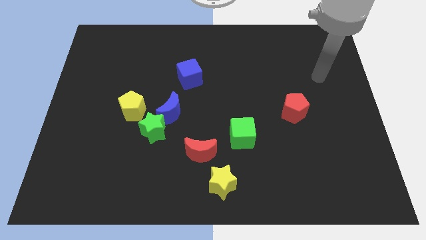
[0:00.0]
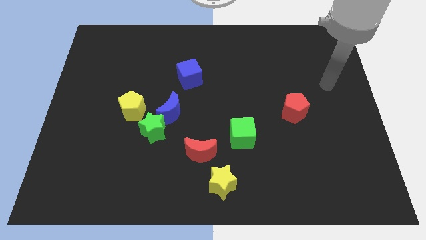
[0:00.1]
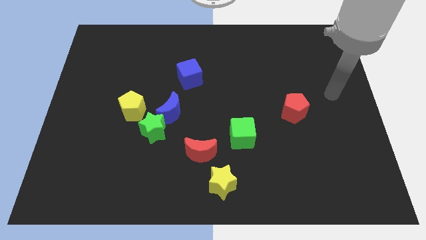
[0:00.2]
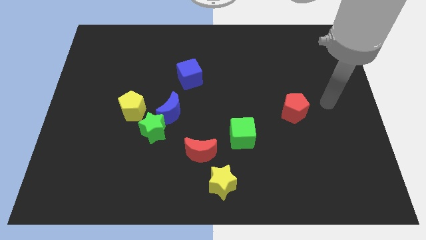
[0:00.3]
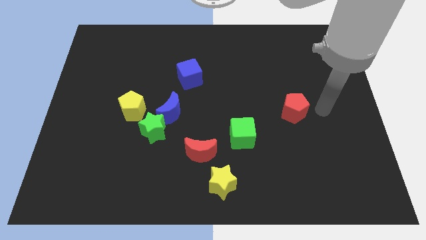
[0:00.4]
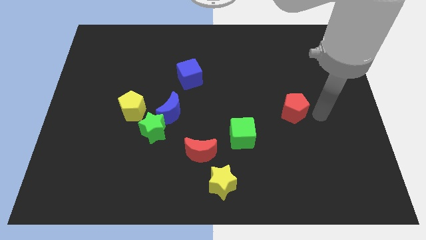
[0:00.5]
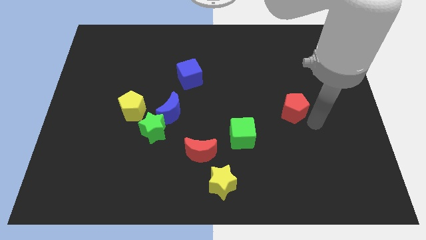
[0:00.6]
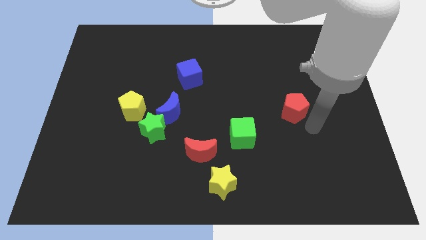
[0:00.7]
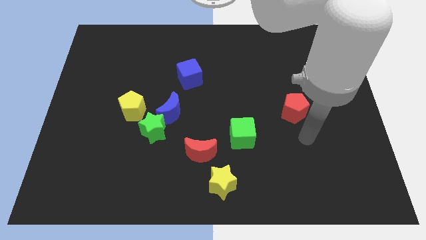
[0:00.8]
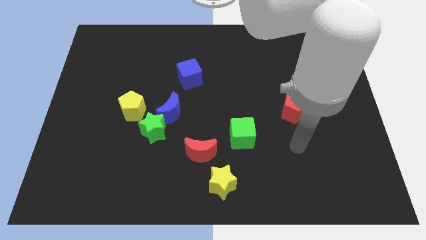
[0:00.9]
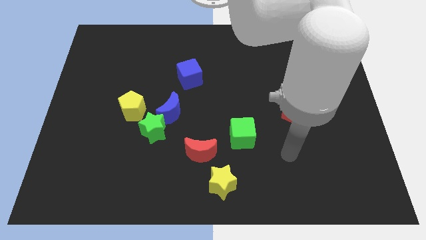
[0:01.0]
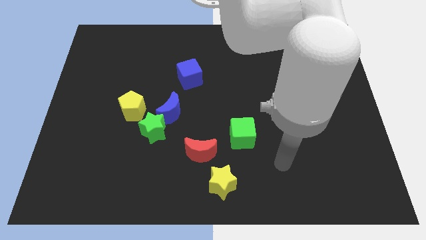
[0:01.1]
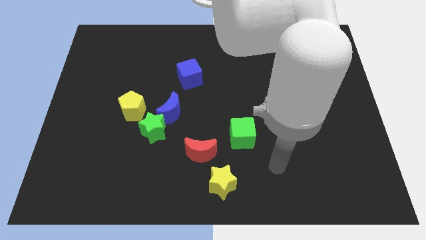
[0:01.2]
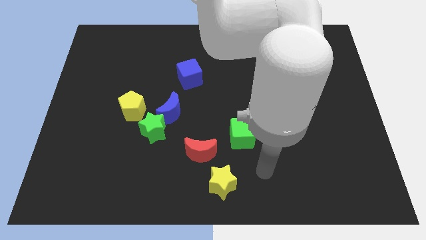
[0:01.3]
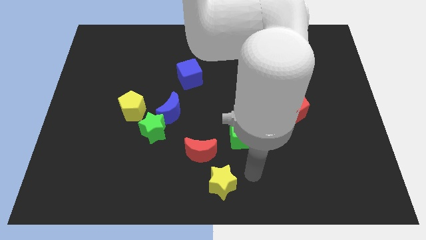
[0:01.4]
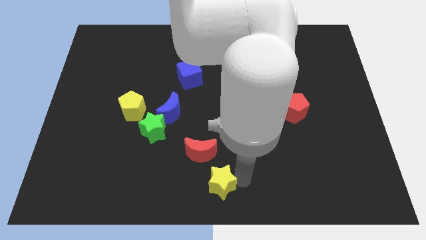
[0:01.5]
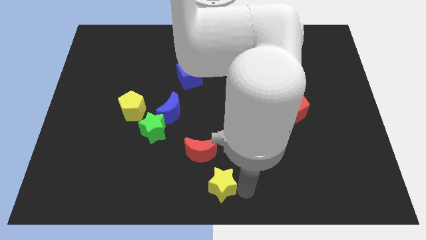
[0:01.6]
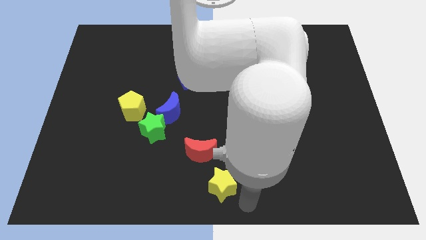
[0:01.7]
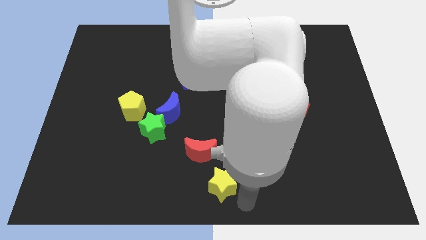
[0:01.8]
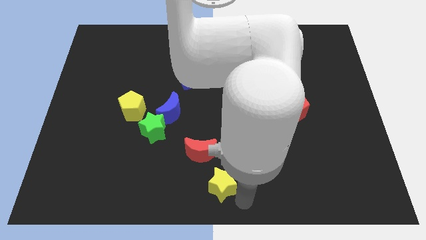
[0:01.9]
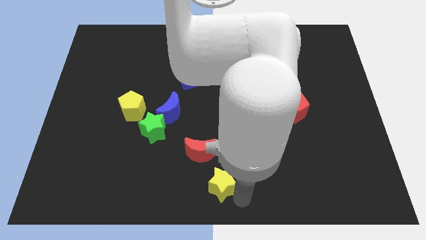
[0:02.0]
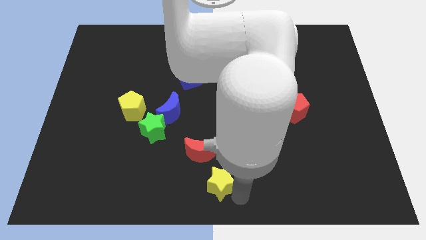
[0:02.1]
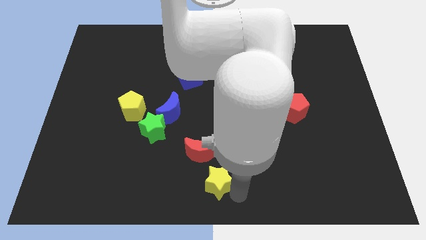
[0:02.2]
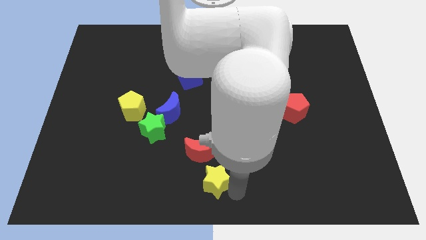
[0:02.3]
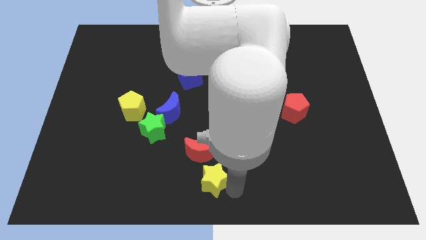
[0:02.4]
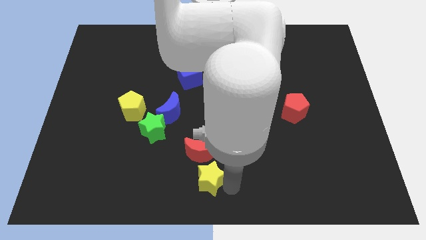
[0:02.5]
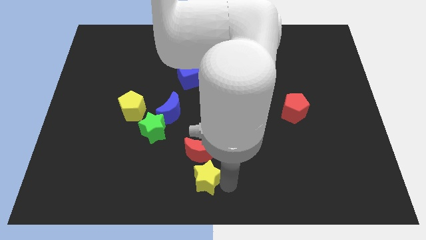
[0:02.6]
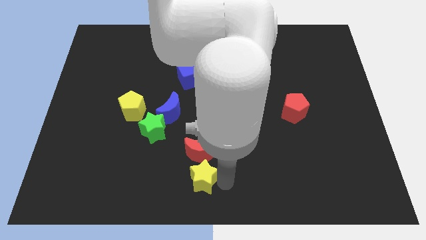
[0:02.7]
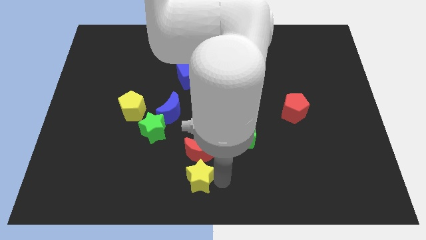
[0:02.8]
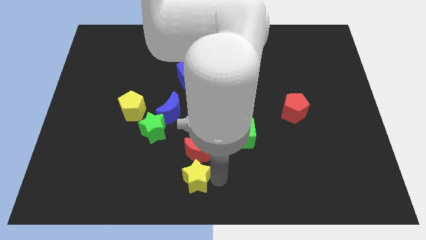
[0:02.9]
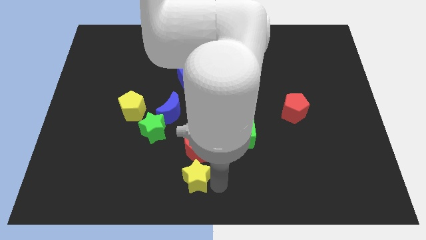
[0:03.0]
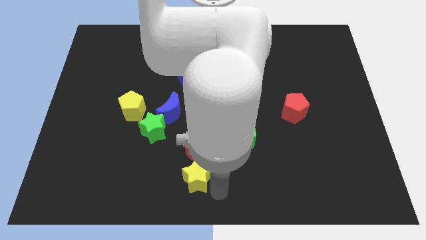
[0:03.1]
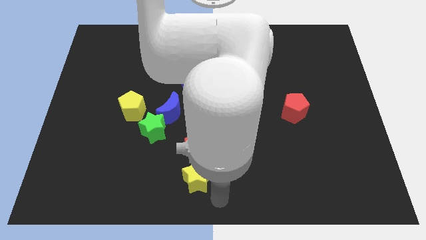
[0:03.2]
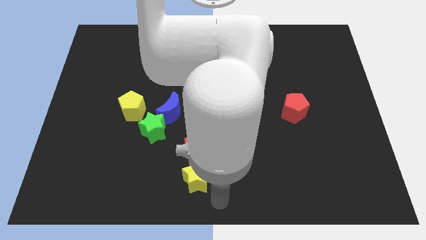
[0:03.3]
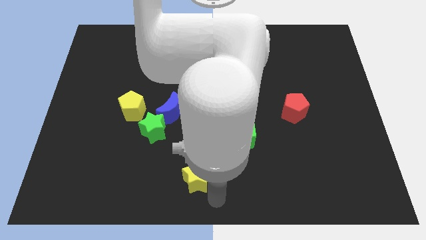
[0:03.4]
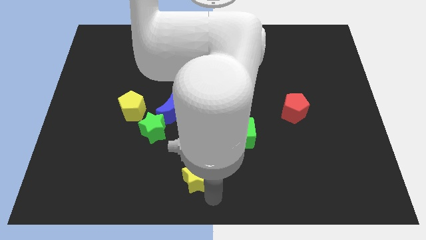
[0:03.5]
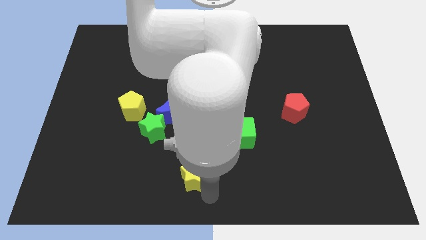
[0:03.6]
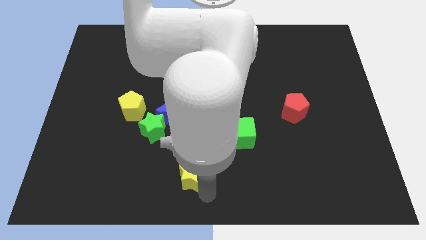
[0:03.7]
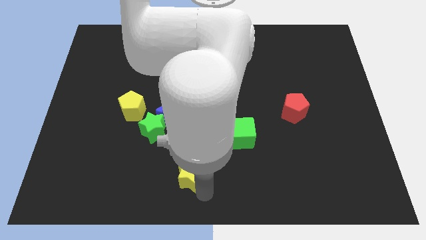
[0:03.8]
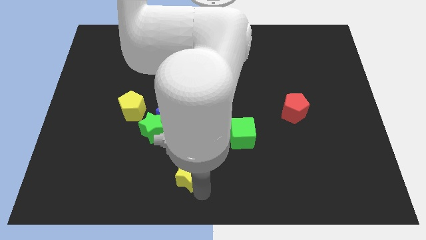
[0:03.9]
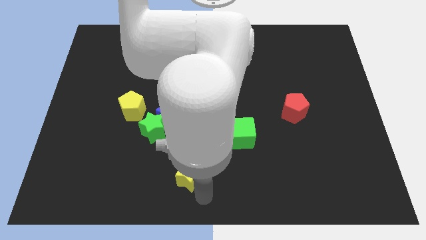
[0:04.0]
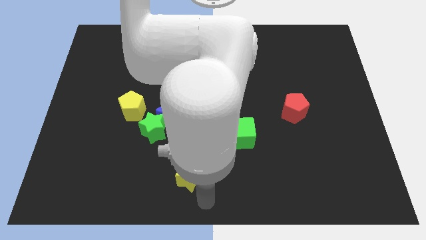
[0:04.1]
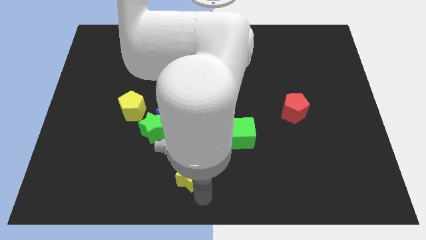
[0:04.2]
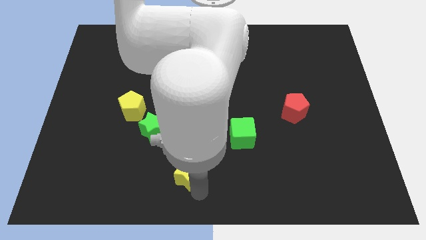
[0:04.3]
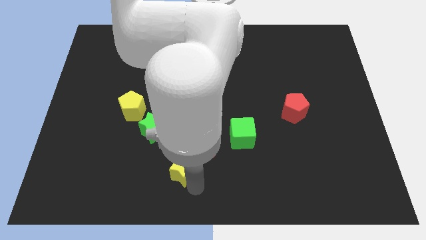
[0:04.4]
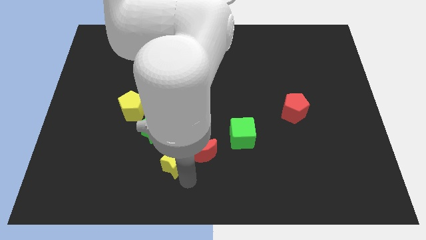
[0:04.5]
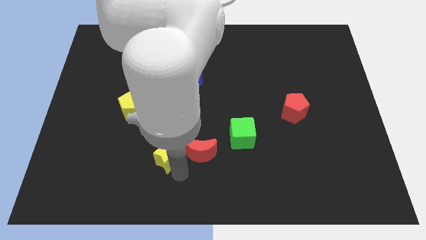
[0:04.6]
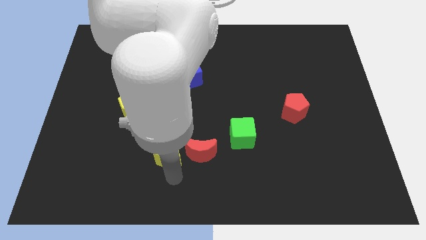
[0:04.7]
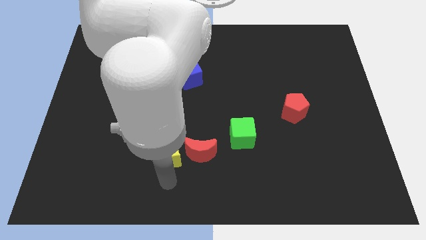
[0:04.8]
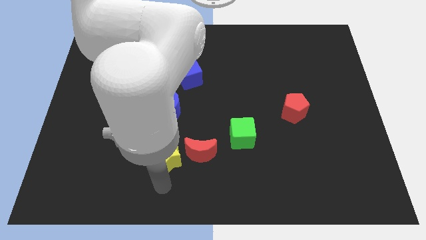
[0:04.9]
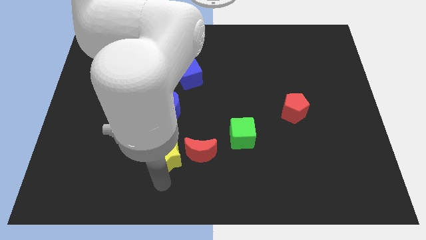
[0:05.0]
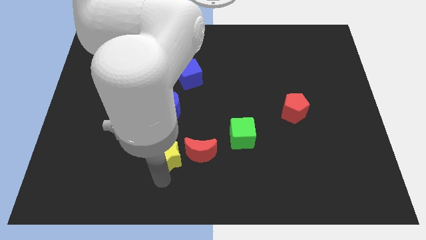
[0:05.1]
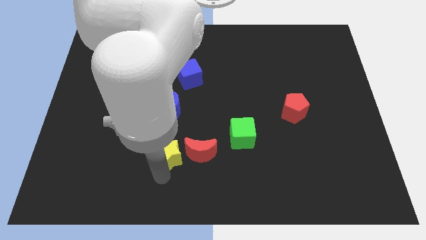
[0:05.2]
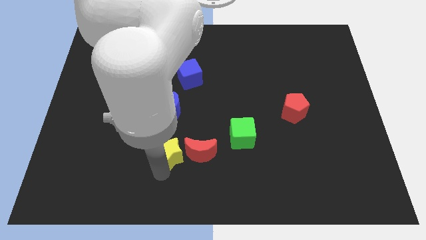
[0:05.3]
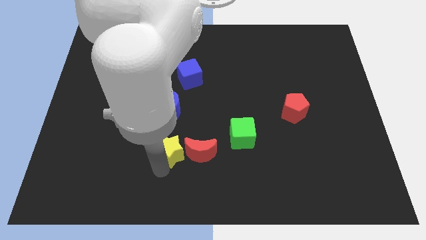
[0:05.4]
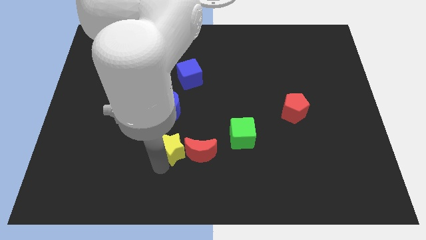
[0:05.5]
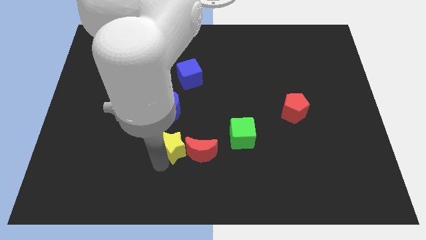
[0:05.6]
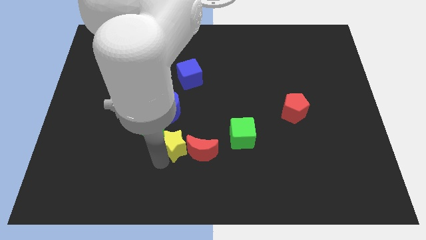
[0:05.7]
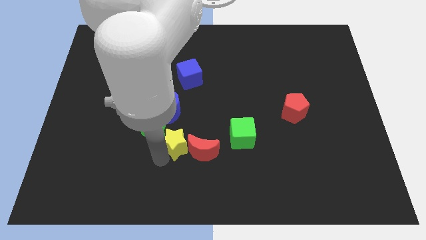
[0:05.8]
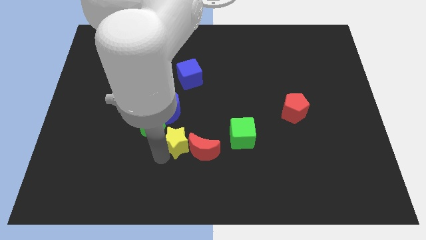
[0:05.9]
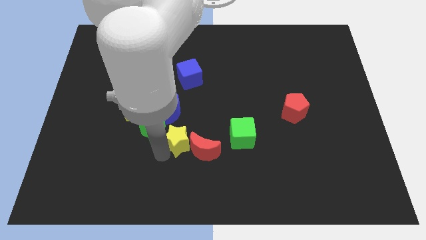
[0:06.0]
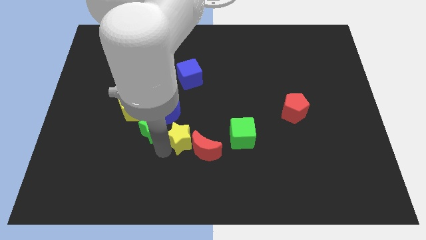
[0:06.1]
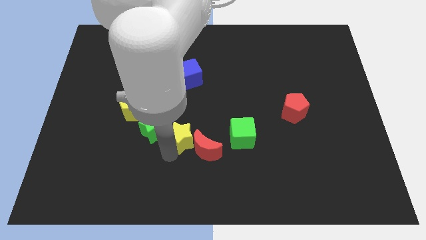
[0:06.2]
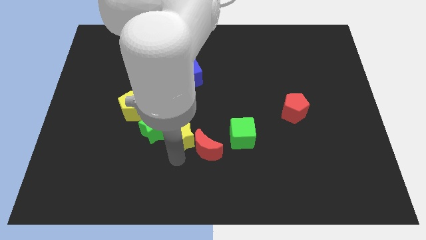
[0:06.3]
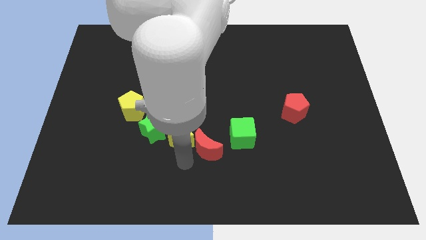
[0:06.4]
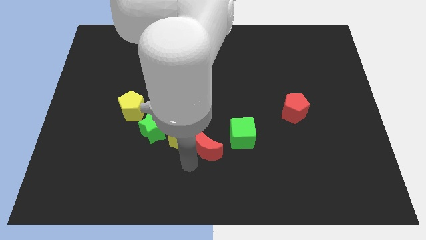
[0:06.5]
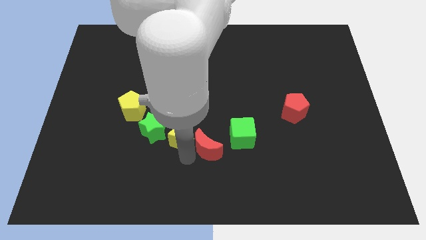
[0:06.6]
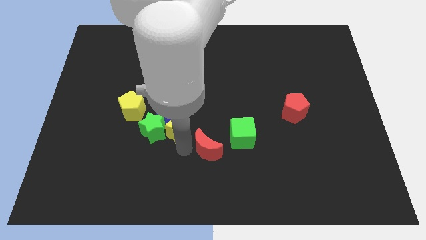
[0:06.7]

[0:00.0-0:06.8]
push the yellow star towards the blue moon
